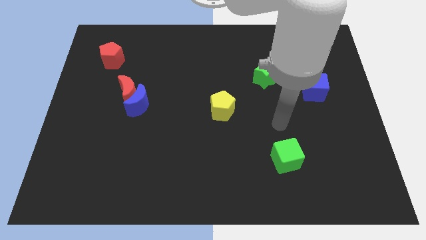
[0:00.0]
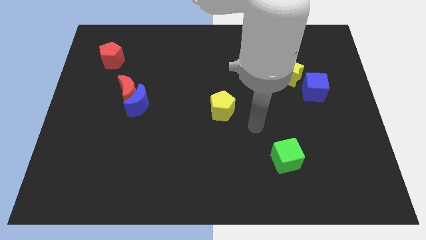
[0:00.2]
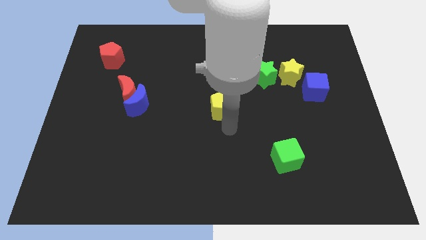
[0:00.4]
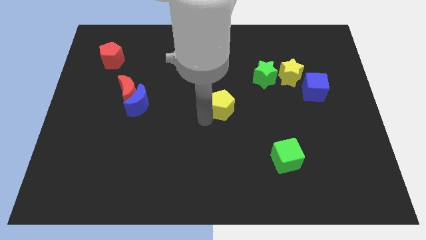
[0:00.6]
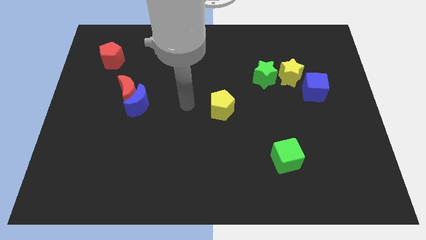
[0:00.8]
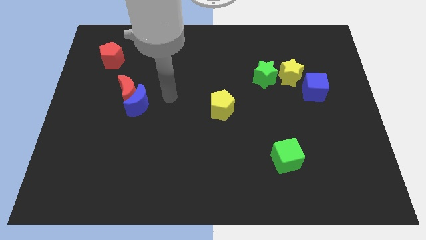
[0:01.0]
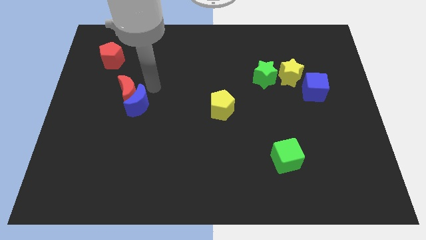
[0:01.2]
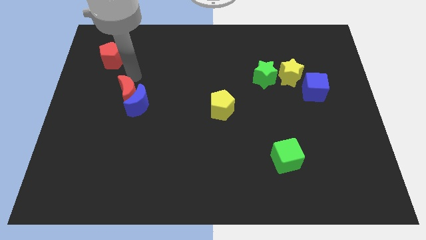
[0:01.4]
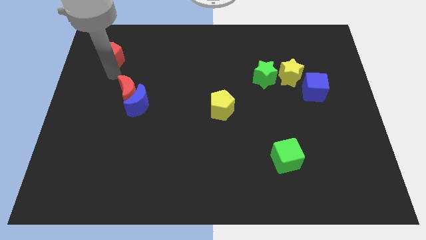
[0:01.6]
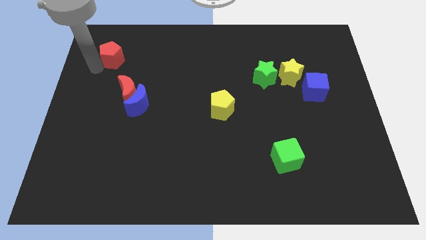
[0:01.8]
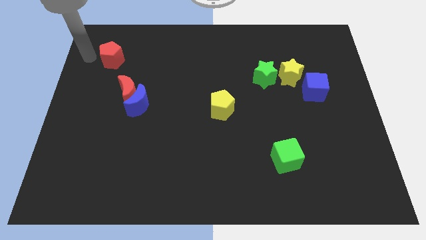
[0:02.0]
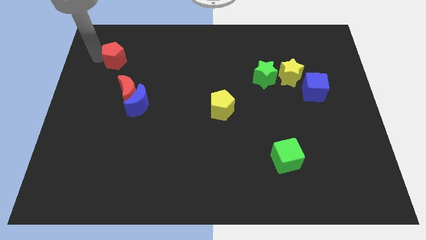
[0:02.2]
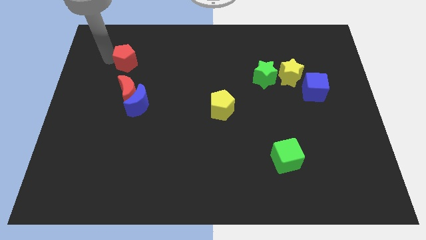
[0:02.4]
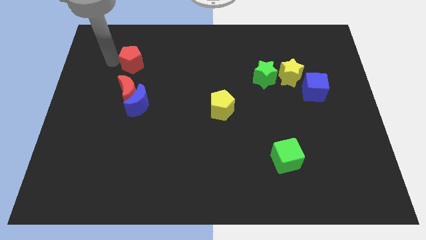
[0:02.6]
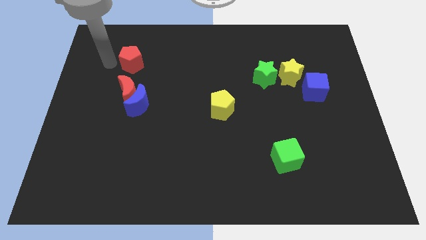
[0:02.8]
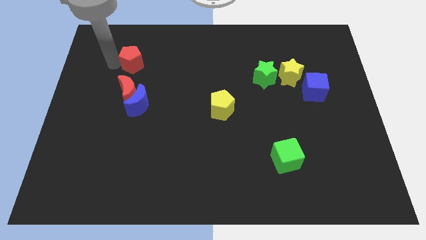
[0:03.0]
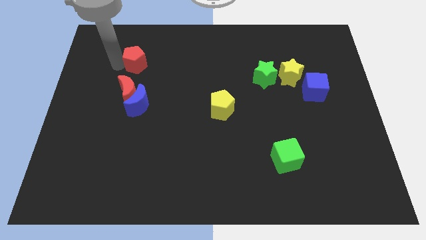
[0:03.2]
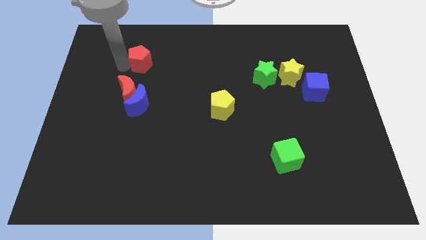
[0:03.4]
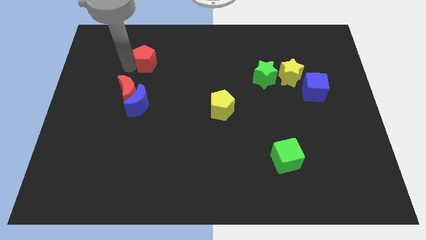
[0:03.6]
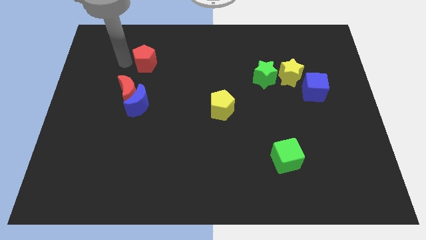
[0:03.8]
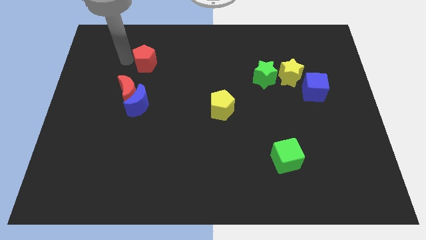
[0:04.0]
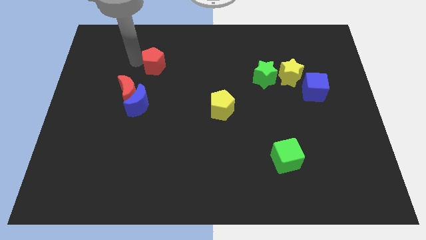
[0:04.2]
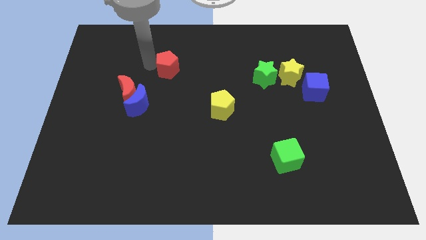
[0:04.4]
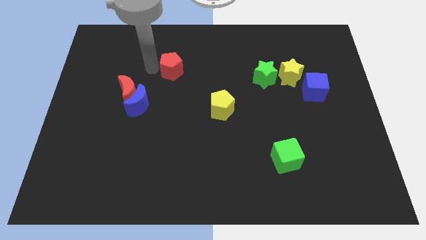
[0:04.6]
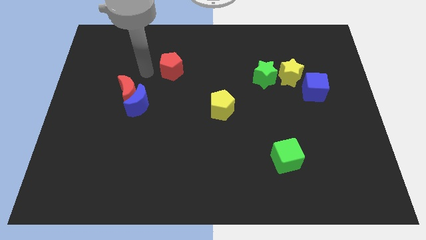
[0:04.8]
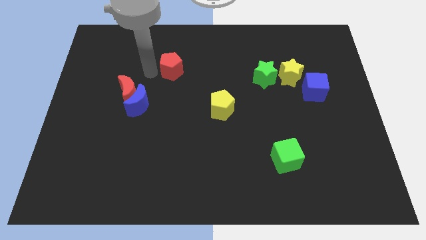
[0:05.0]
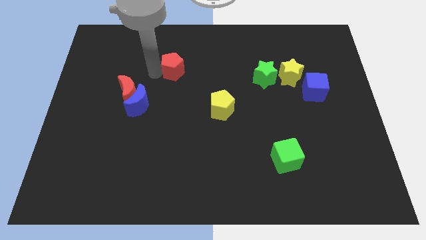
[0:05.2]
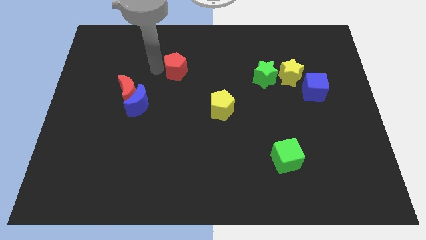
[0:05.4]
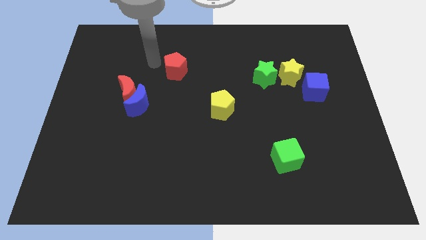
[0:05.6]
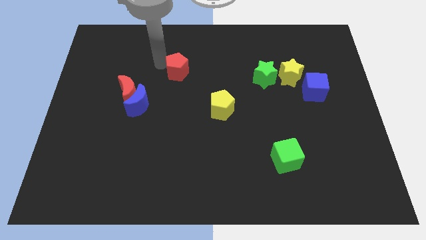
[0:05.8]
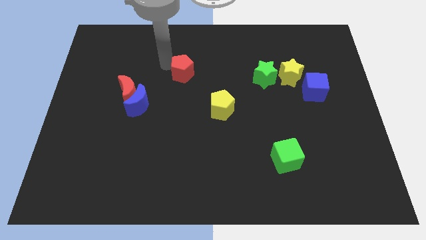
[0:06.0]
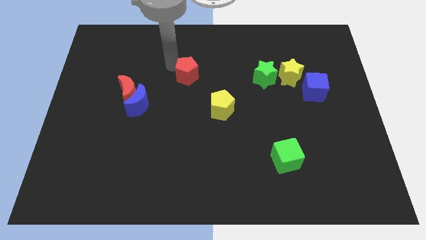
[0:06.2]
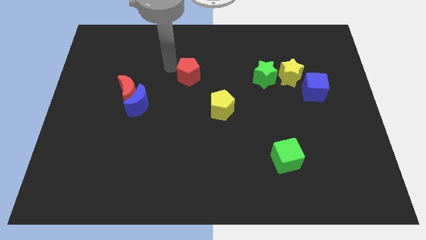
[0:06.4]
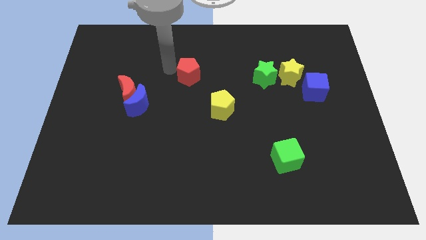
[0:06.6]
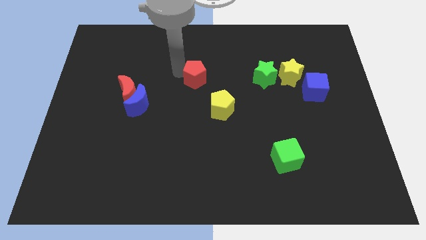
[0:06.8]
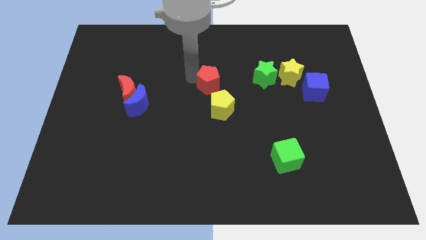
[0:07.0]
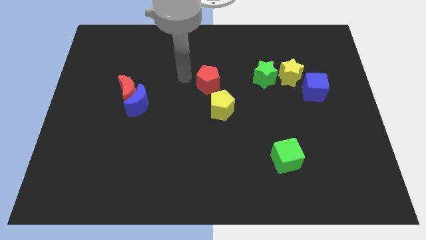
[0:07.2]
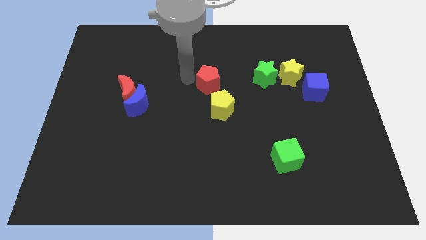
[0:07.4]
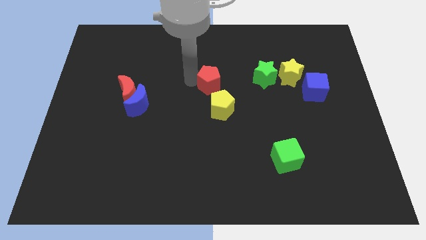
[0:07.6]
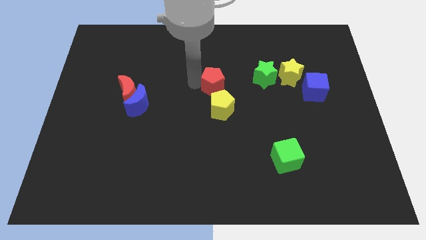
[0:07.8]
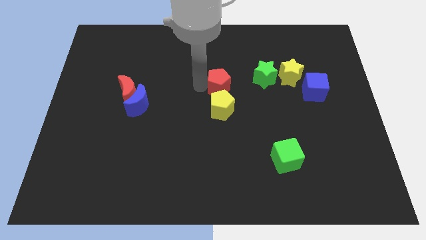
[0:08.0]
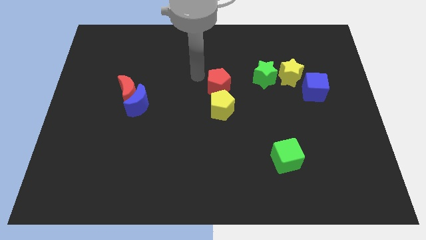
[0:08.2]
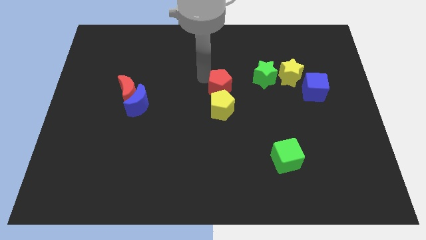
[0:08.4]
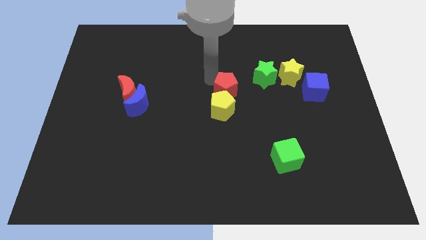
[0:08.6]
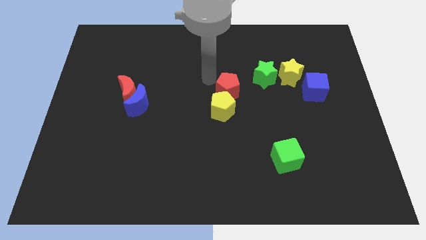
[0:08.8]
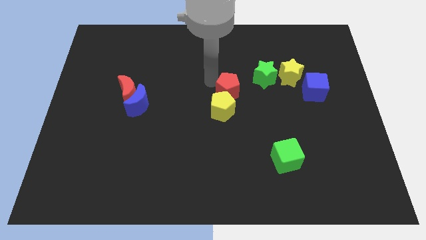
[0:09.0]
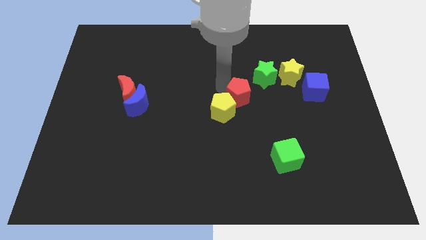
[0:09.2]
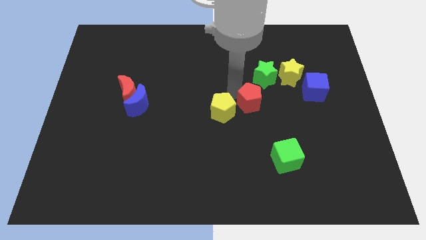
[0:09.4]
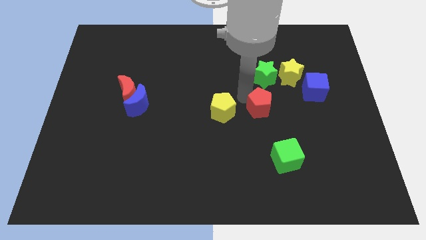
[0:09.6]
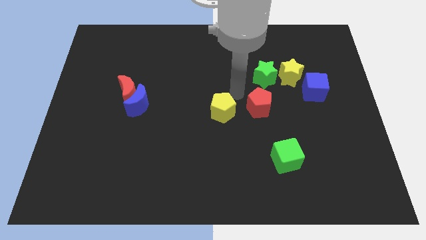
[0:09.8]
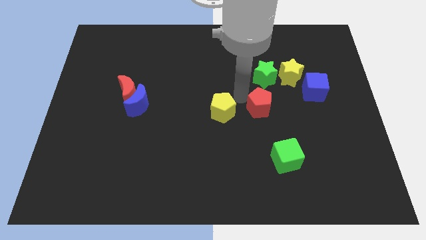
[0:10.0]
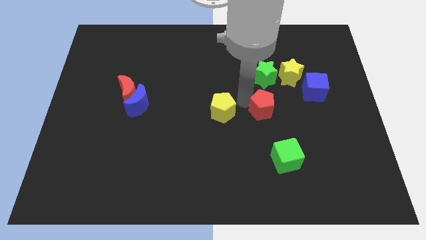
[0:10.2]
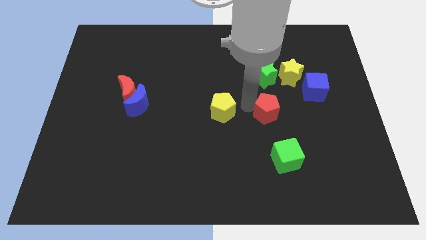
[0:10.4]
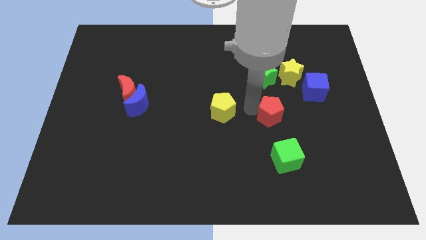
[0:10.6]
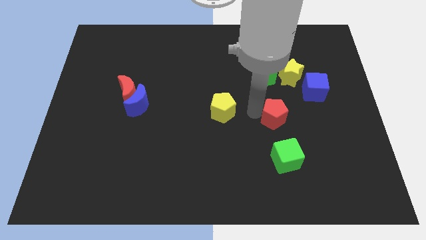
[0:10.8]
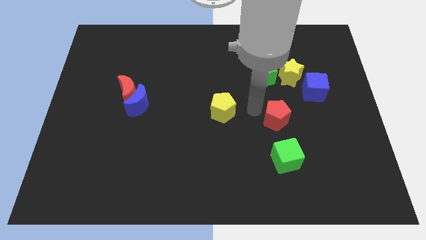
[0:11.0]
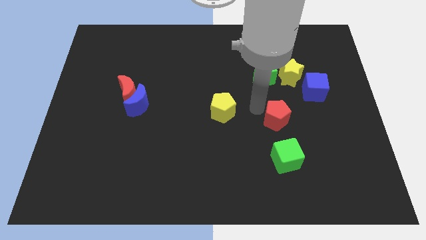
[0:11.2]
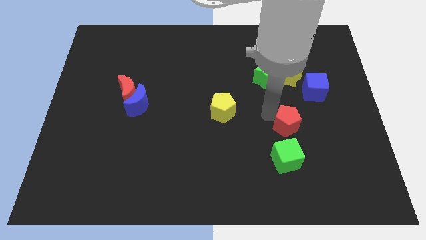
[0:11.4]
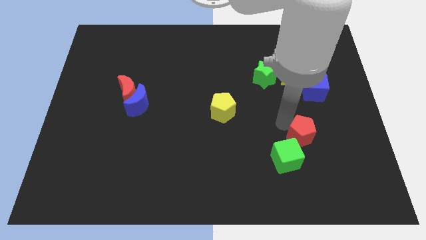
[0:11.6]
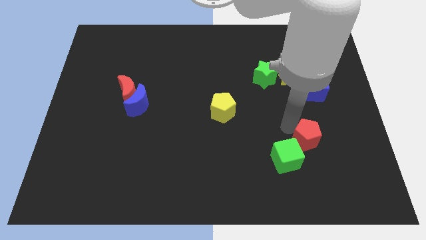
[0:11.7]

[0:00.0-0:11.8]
slide the red pentagon just right of the green cube

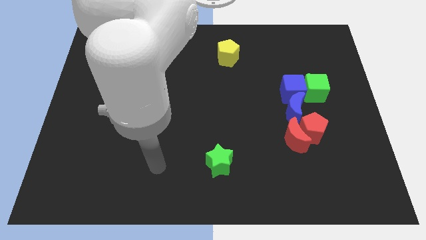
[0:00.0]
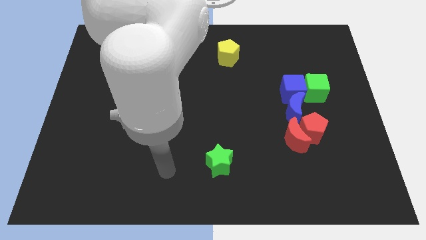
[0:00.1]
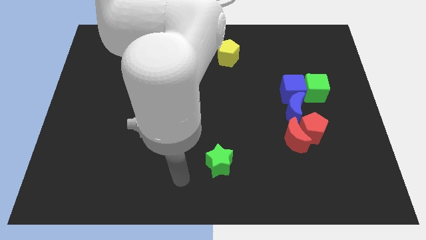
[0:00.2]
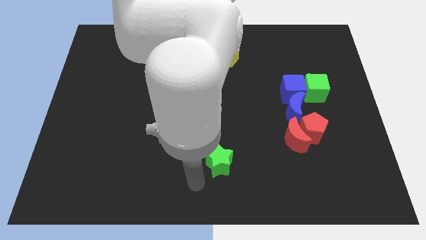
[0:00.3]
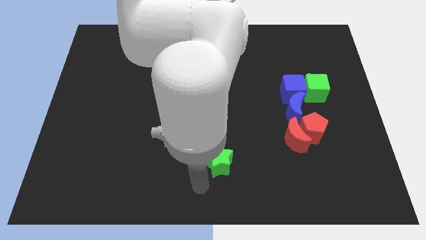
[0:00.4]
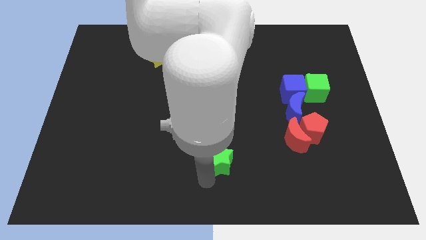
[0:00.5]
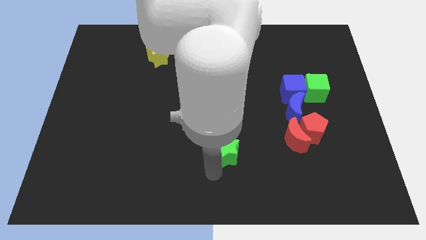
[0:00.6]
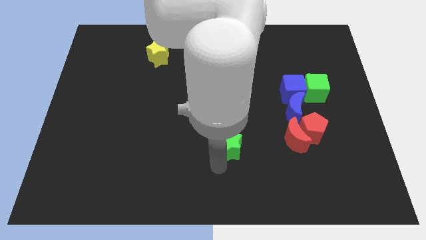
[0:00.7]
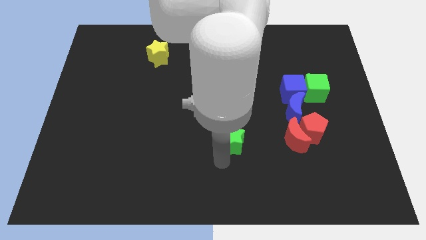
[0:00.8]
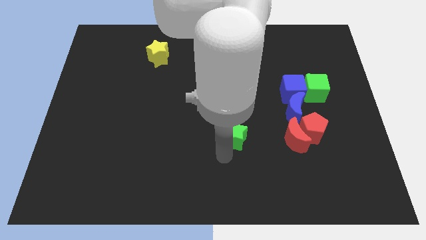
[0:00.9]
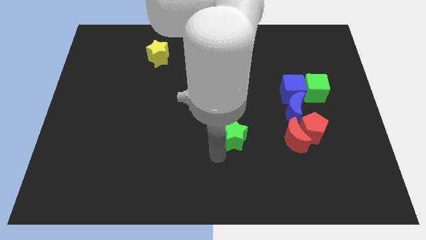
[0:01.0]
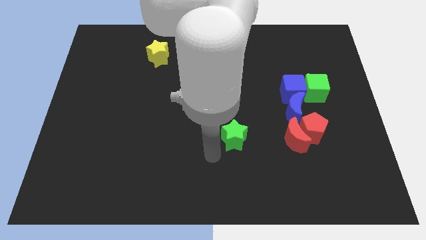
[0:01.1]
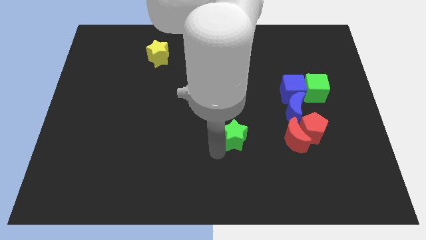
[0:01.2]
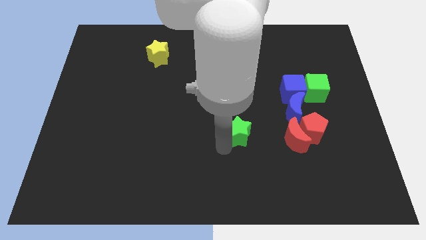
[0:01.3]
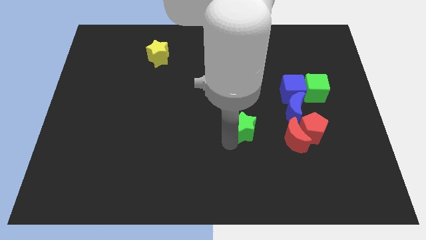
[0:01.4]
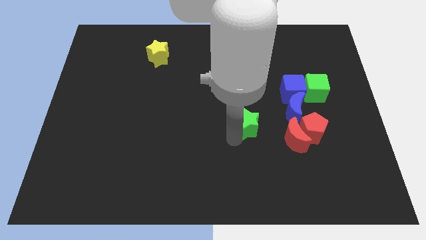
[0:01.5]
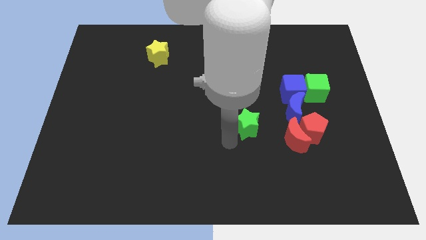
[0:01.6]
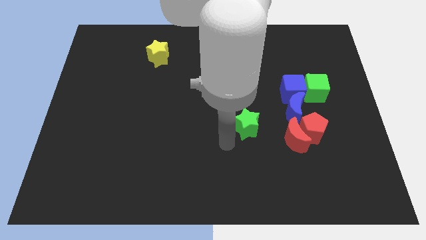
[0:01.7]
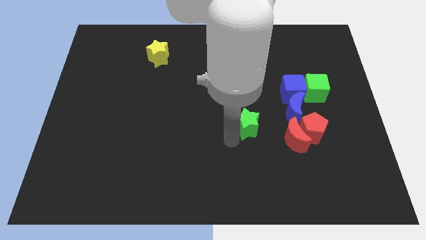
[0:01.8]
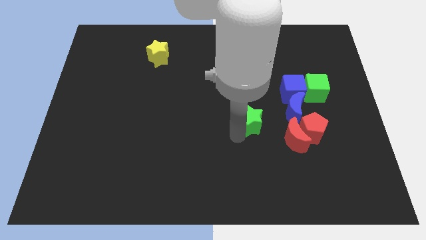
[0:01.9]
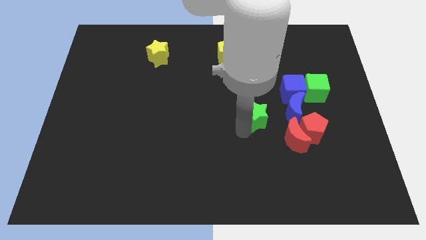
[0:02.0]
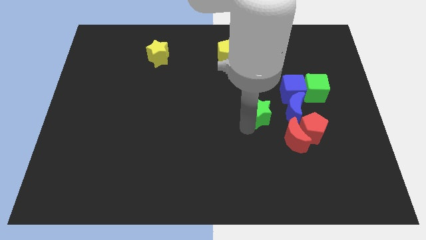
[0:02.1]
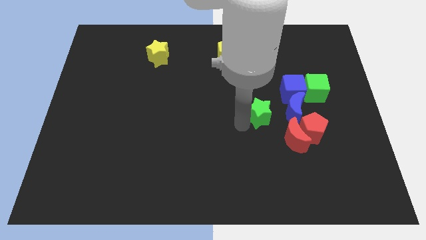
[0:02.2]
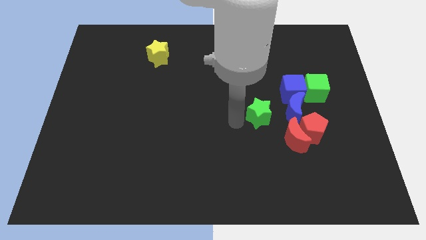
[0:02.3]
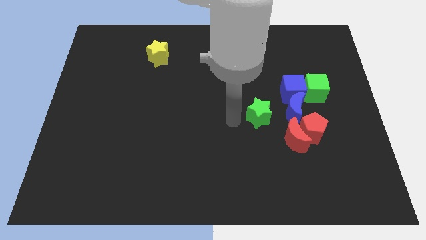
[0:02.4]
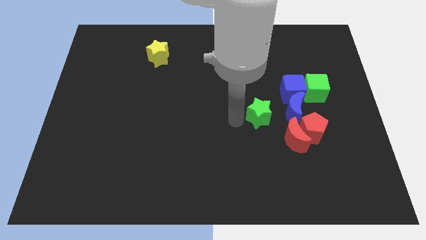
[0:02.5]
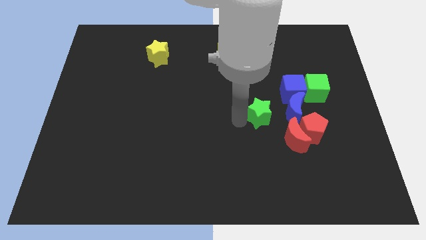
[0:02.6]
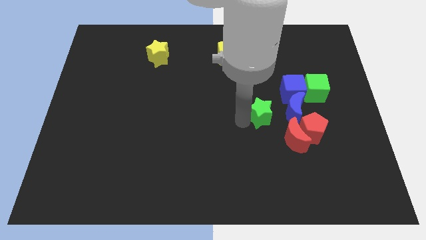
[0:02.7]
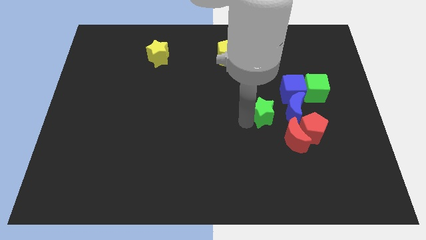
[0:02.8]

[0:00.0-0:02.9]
push the green star to the top left side of the red pentagon
